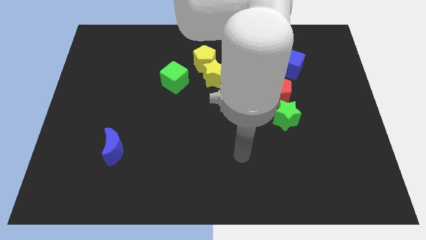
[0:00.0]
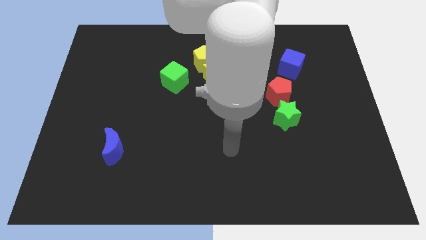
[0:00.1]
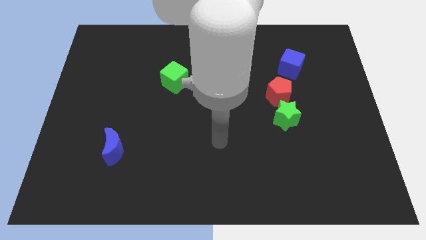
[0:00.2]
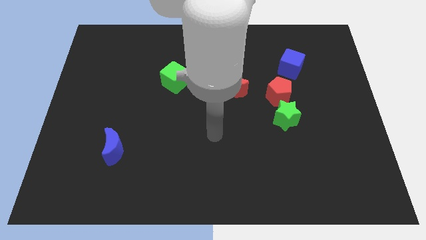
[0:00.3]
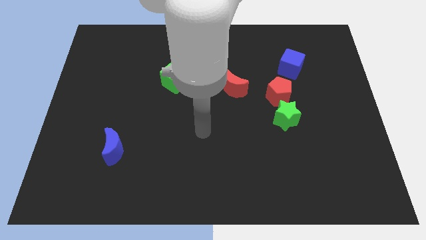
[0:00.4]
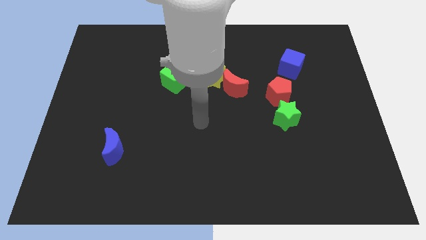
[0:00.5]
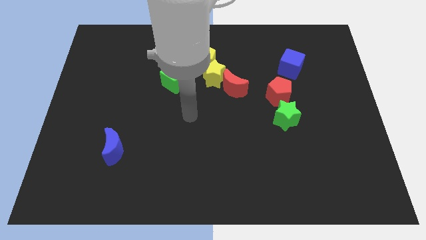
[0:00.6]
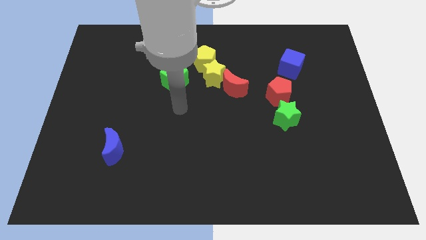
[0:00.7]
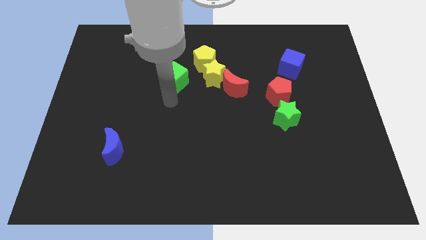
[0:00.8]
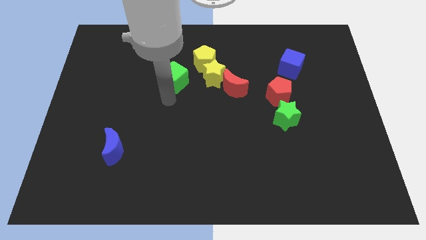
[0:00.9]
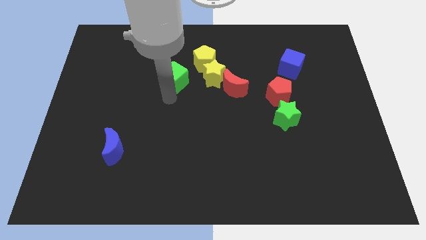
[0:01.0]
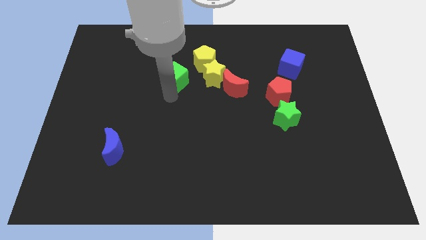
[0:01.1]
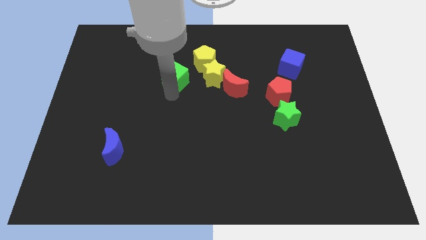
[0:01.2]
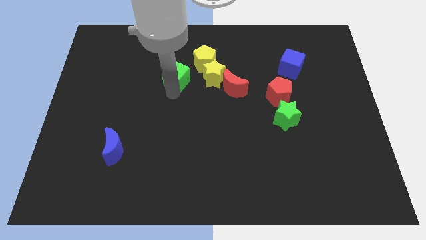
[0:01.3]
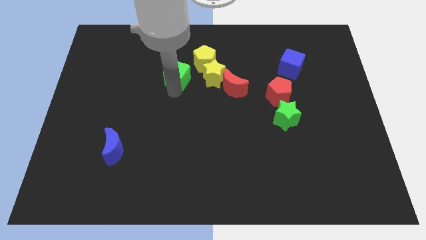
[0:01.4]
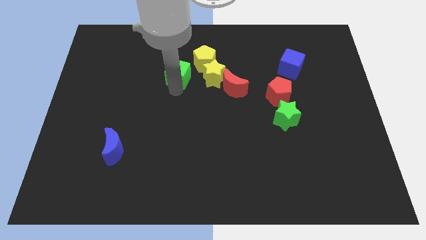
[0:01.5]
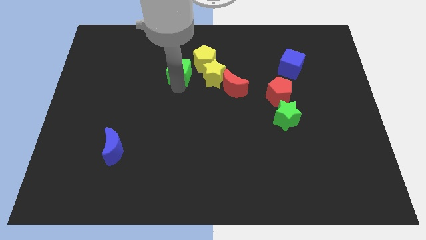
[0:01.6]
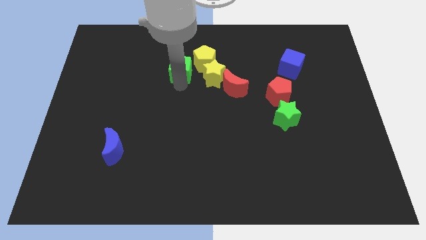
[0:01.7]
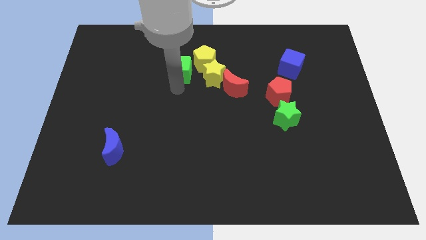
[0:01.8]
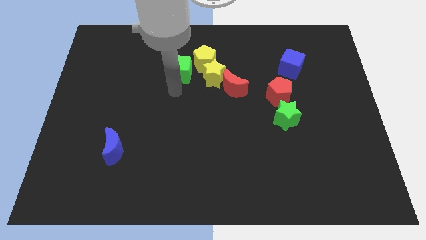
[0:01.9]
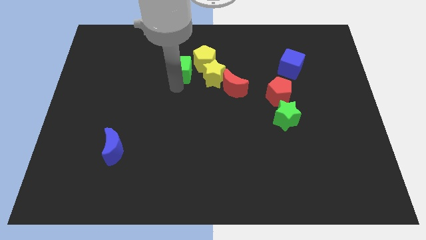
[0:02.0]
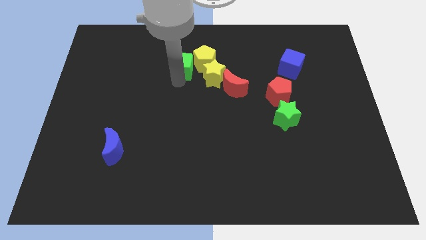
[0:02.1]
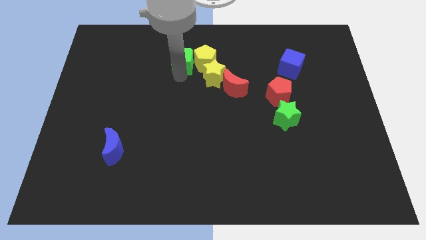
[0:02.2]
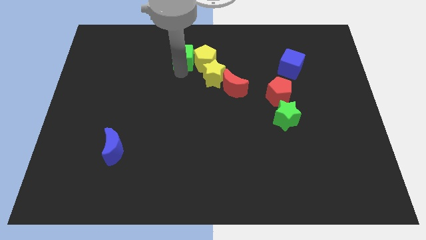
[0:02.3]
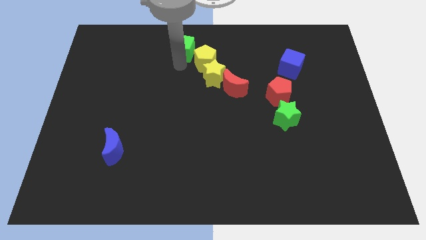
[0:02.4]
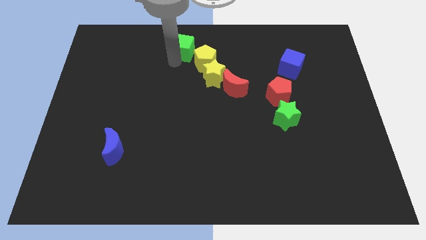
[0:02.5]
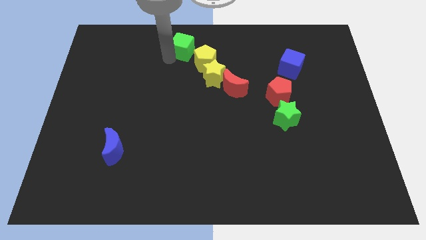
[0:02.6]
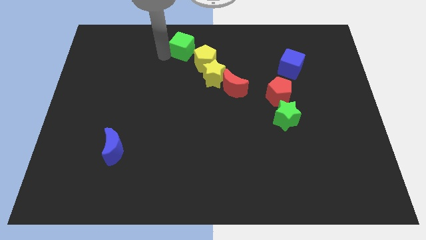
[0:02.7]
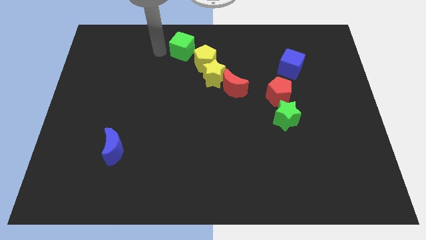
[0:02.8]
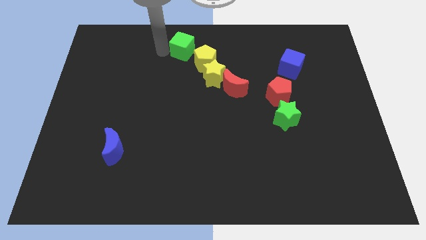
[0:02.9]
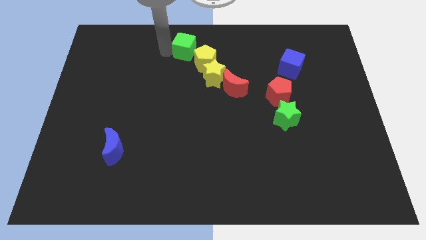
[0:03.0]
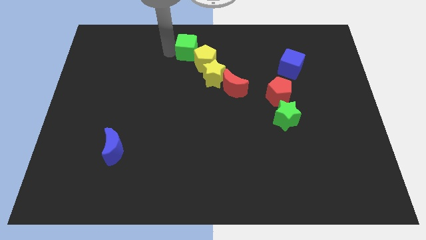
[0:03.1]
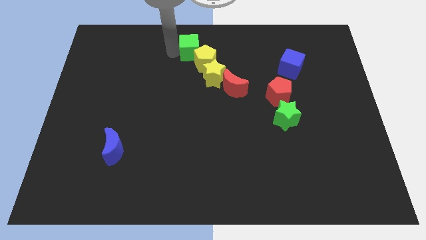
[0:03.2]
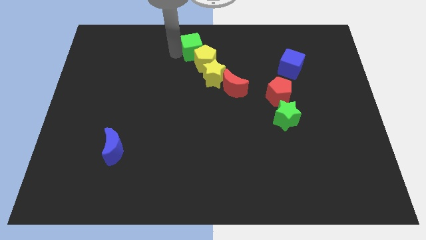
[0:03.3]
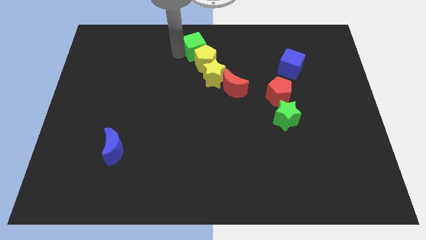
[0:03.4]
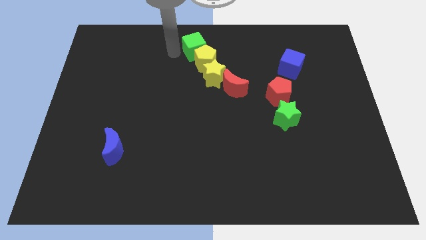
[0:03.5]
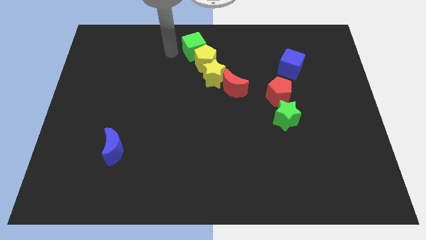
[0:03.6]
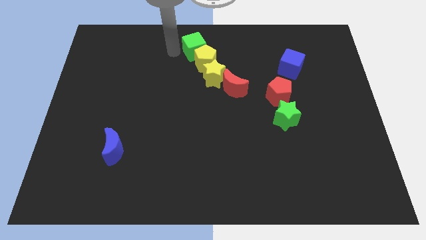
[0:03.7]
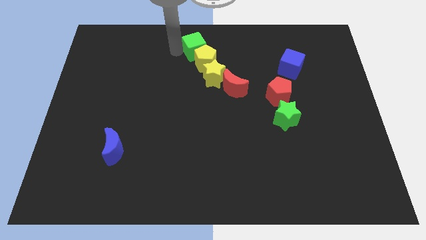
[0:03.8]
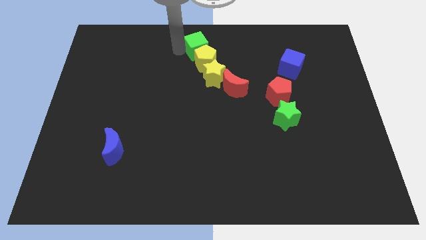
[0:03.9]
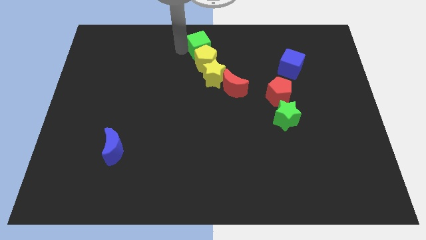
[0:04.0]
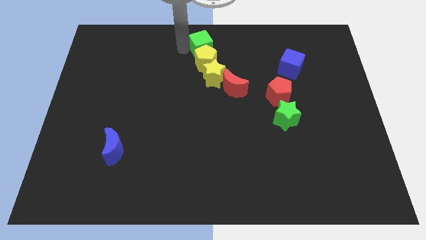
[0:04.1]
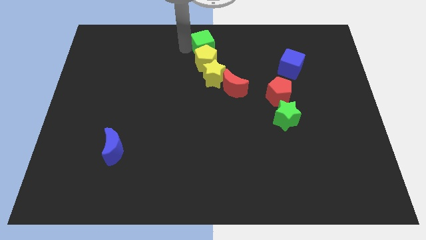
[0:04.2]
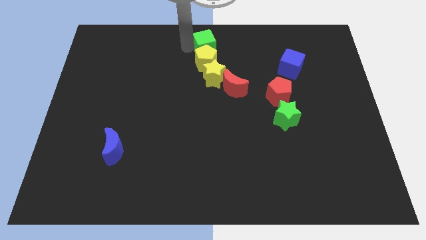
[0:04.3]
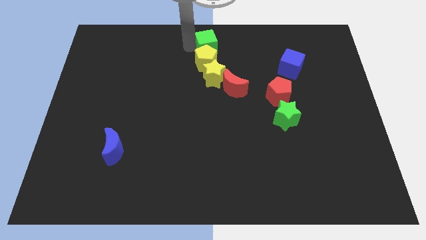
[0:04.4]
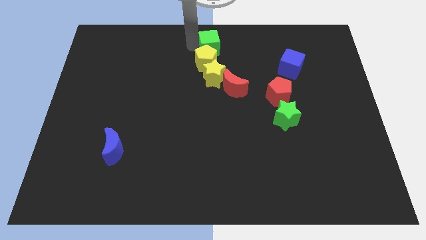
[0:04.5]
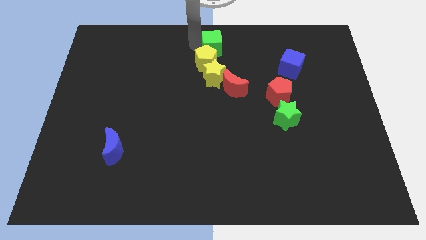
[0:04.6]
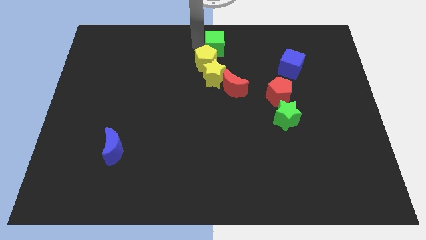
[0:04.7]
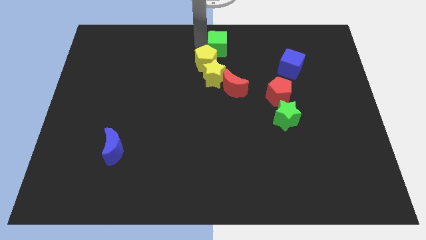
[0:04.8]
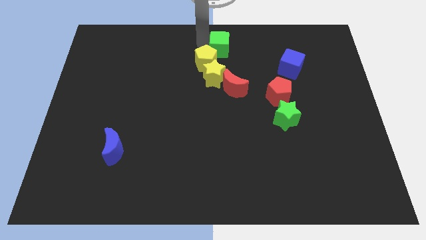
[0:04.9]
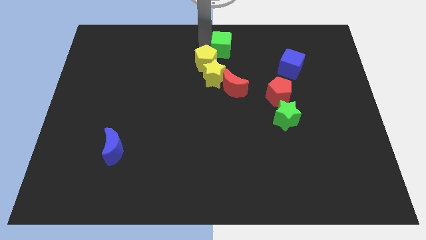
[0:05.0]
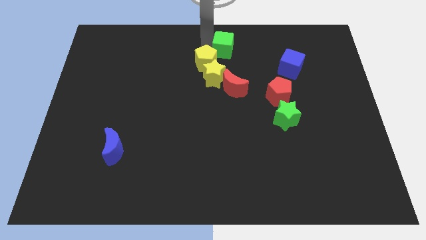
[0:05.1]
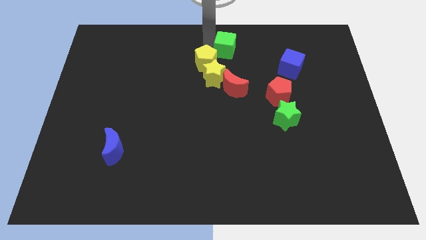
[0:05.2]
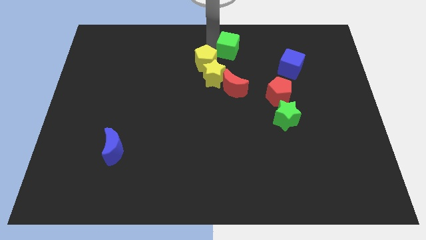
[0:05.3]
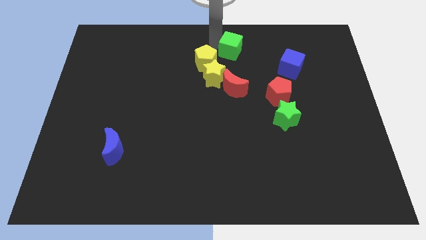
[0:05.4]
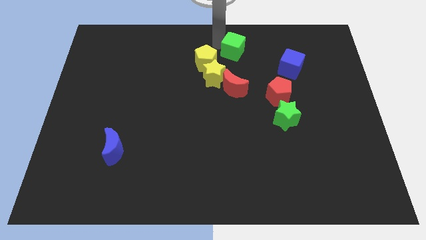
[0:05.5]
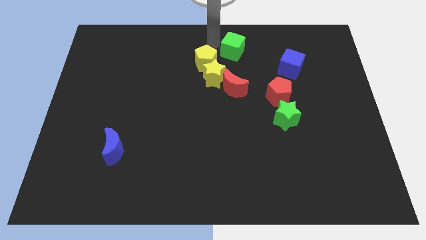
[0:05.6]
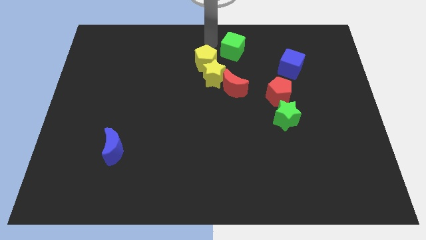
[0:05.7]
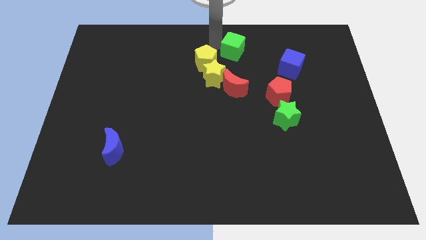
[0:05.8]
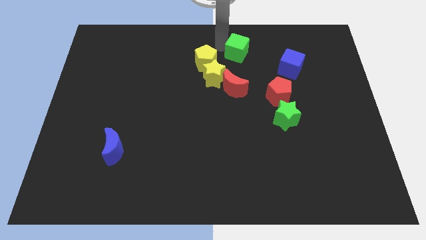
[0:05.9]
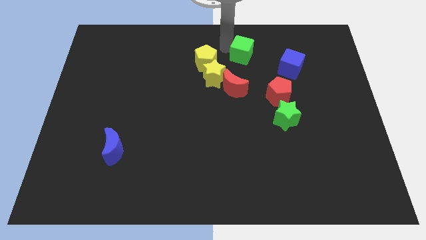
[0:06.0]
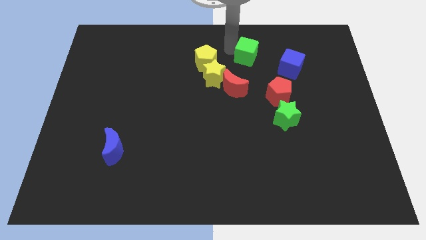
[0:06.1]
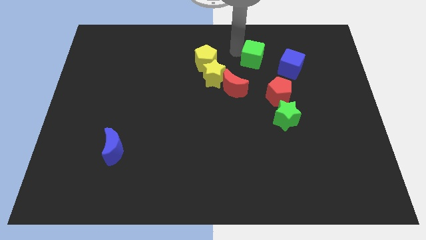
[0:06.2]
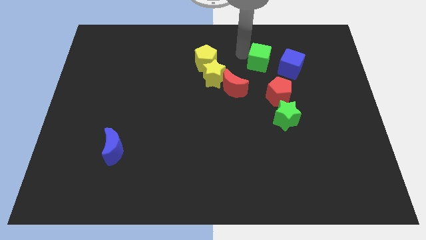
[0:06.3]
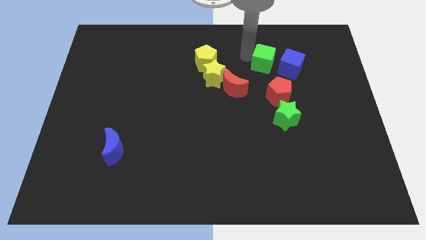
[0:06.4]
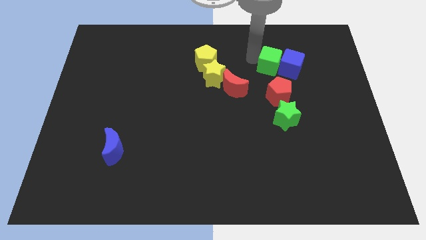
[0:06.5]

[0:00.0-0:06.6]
push the green cube to the blue cube
